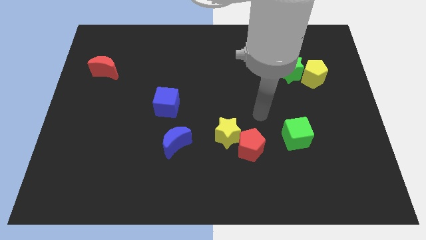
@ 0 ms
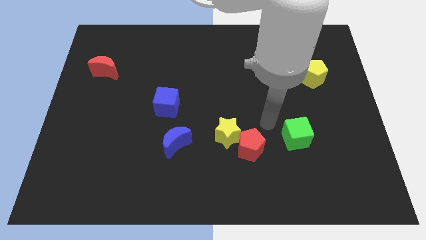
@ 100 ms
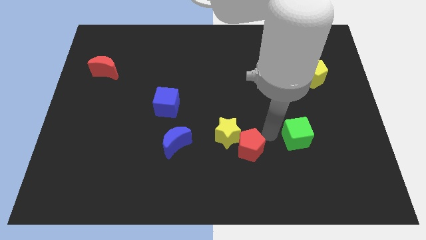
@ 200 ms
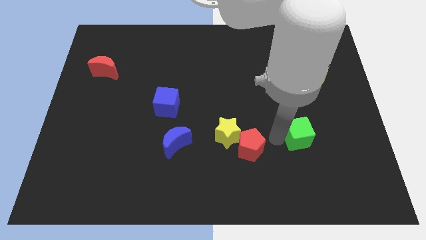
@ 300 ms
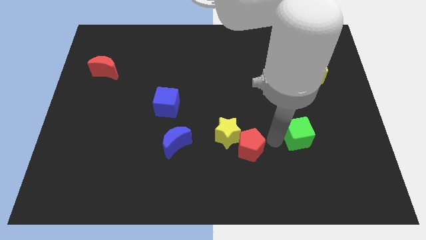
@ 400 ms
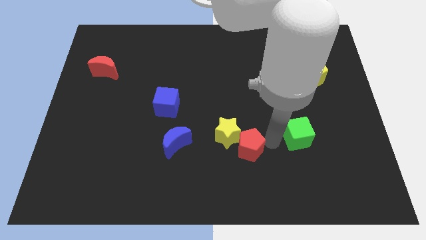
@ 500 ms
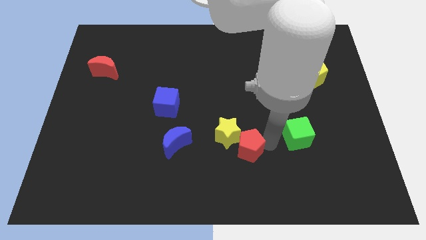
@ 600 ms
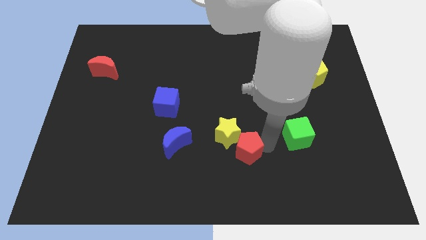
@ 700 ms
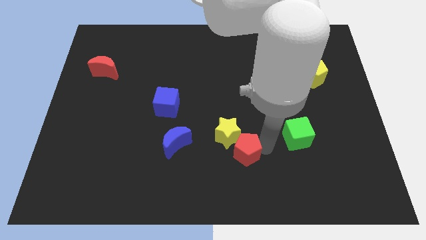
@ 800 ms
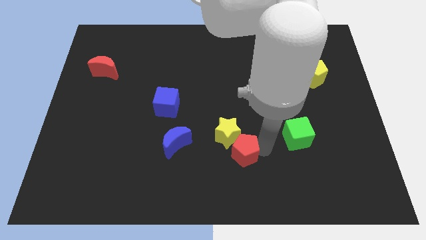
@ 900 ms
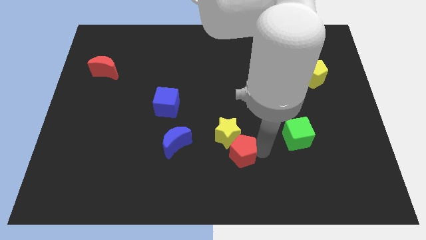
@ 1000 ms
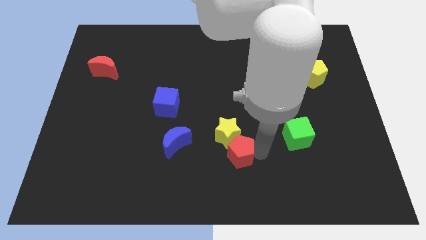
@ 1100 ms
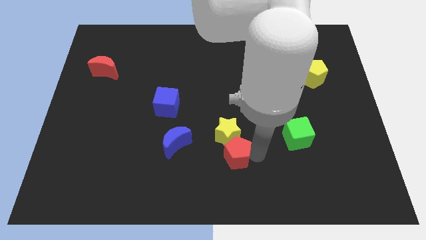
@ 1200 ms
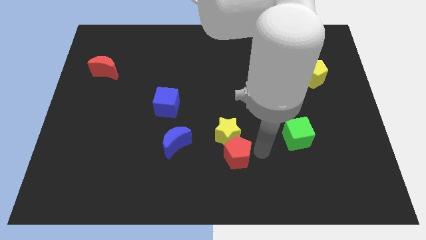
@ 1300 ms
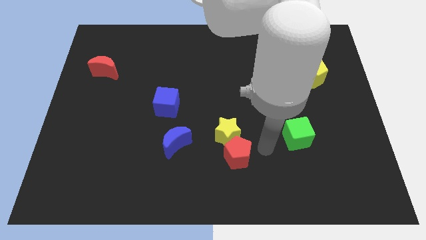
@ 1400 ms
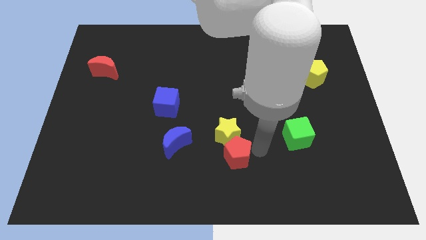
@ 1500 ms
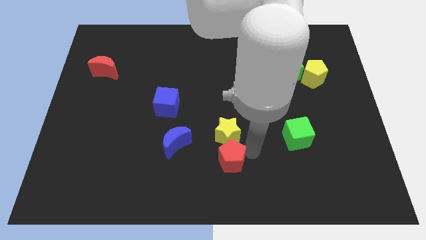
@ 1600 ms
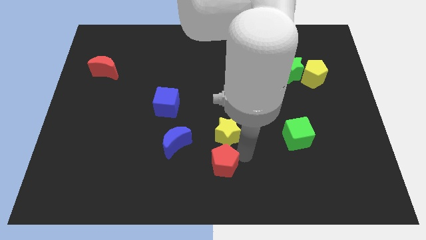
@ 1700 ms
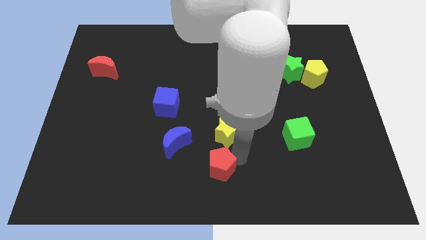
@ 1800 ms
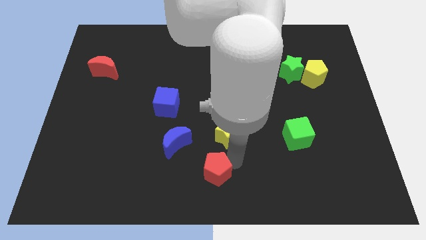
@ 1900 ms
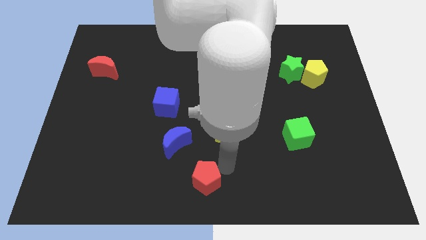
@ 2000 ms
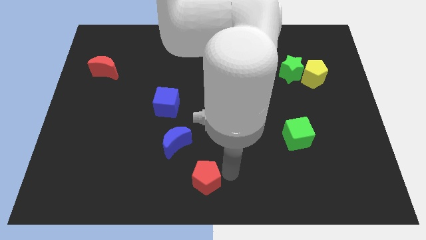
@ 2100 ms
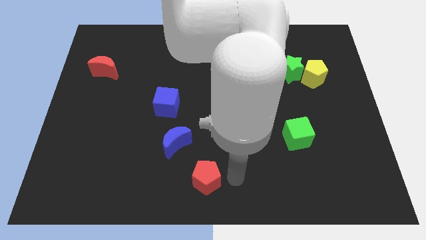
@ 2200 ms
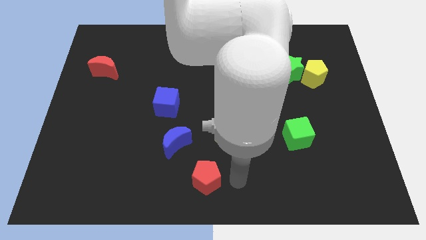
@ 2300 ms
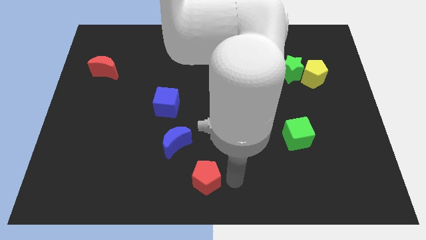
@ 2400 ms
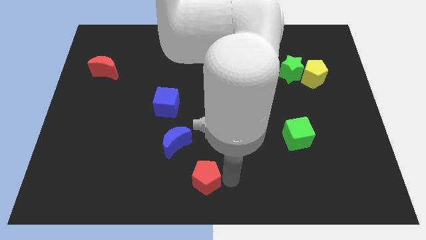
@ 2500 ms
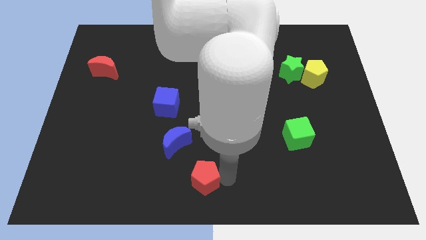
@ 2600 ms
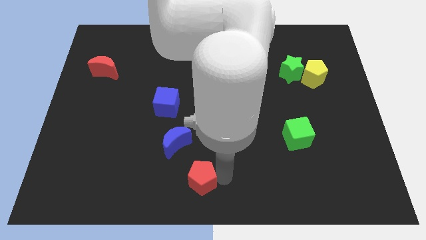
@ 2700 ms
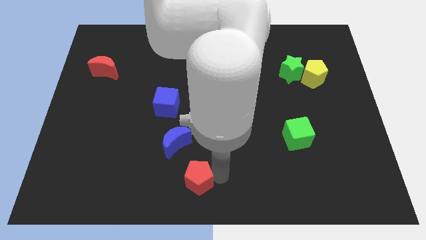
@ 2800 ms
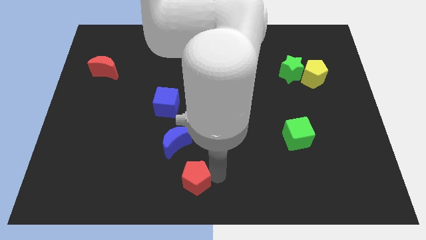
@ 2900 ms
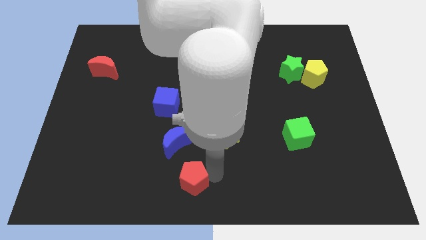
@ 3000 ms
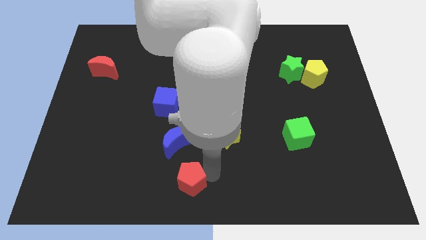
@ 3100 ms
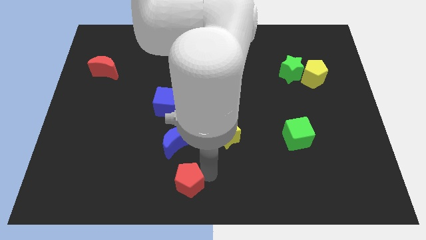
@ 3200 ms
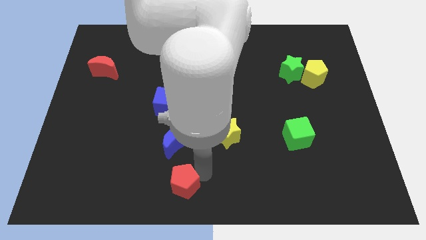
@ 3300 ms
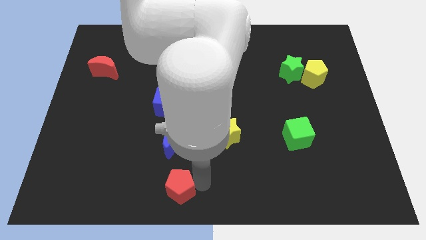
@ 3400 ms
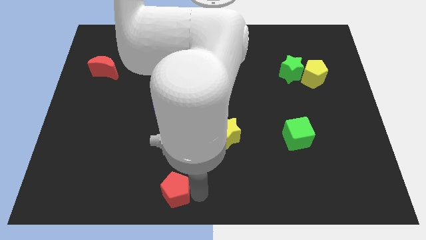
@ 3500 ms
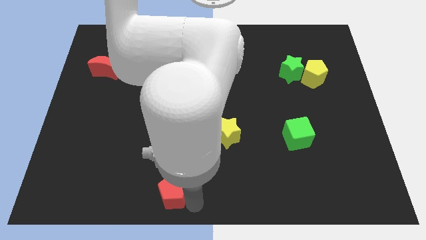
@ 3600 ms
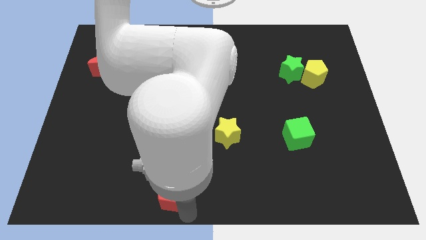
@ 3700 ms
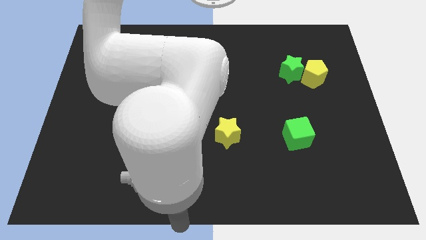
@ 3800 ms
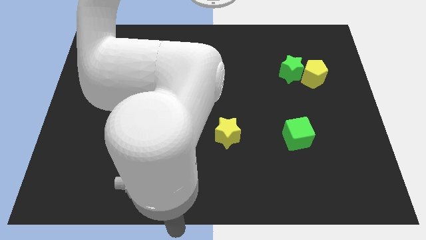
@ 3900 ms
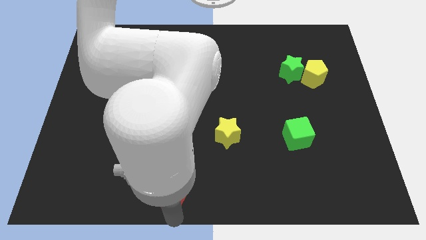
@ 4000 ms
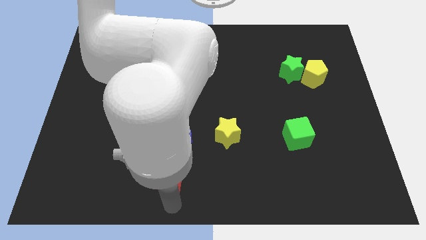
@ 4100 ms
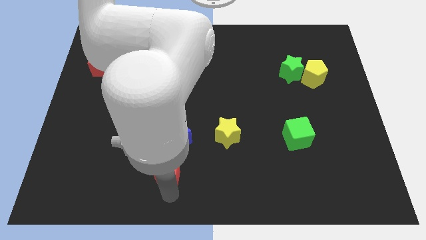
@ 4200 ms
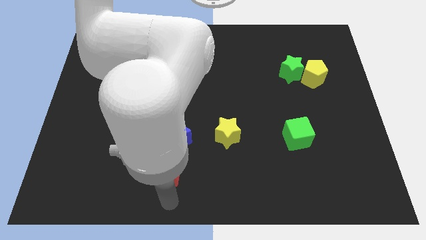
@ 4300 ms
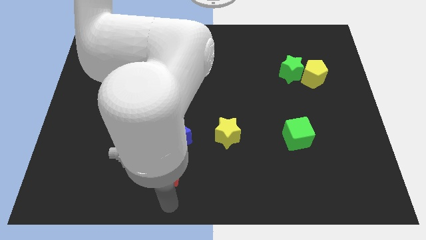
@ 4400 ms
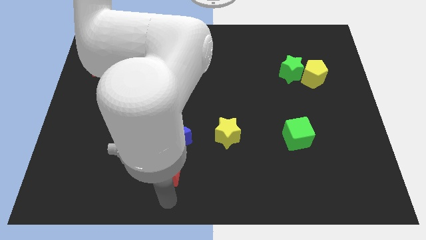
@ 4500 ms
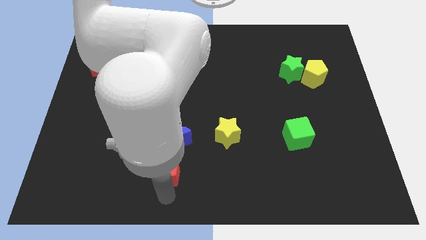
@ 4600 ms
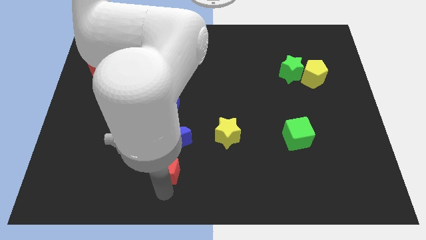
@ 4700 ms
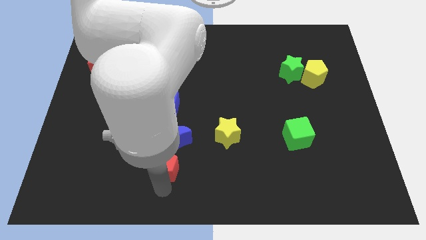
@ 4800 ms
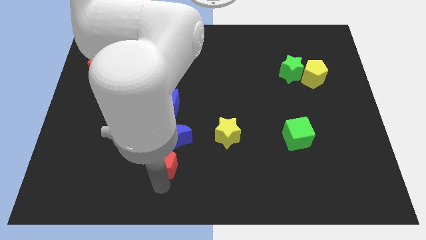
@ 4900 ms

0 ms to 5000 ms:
push the red pentagon to the bottom of the blue cube

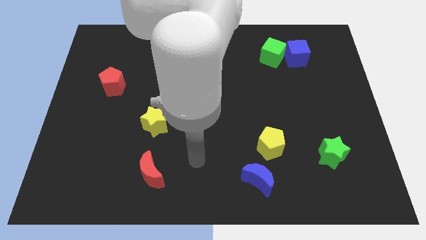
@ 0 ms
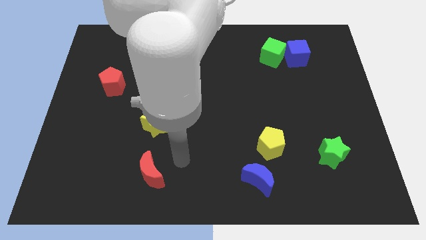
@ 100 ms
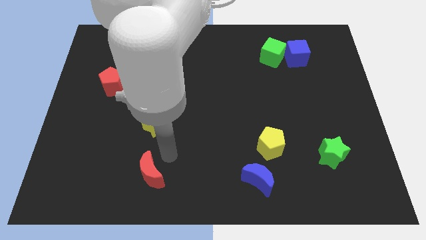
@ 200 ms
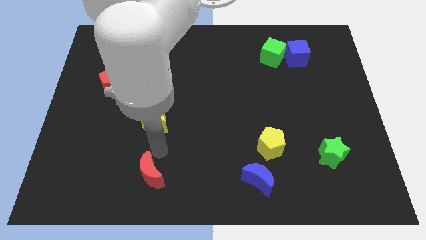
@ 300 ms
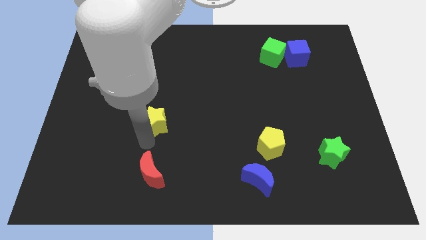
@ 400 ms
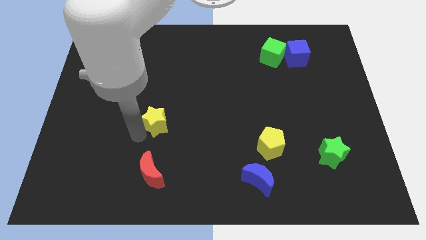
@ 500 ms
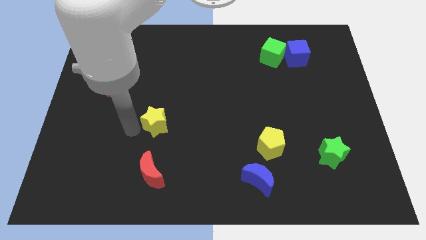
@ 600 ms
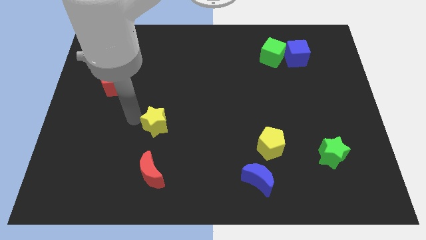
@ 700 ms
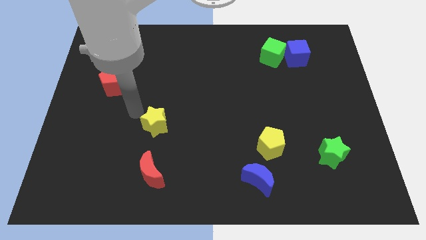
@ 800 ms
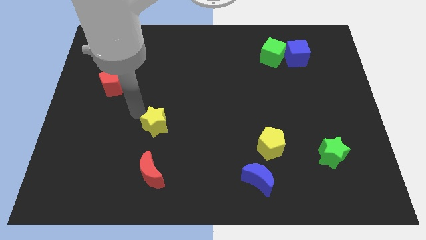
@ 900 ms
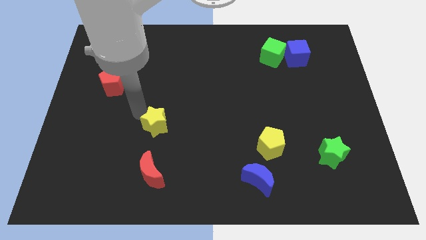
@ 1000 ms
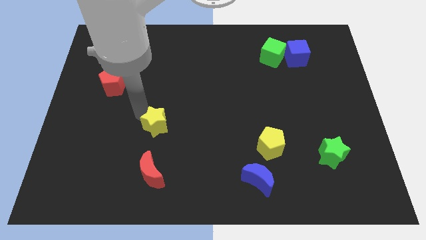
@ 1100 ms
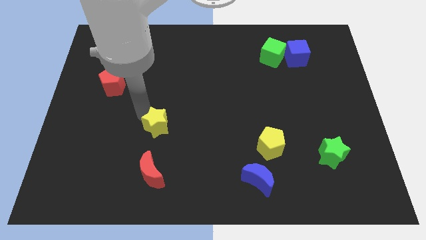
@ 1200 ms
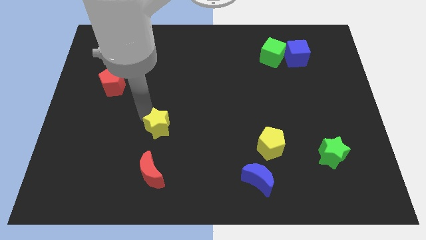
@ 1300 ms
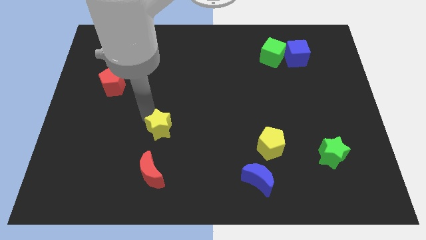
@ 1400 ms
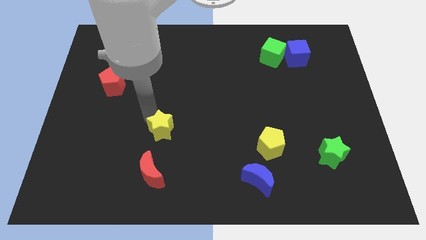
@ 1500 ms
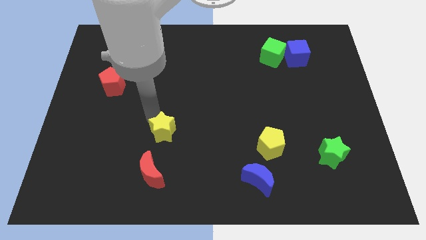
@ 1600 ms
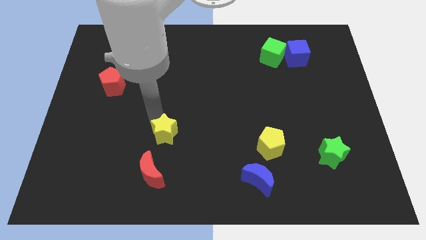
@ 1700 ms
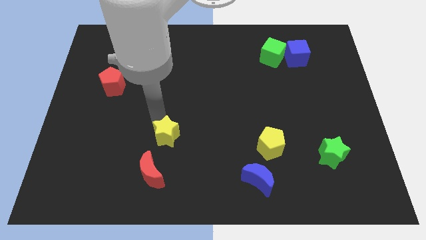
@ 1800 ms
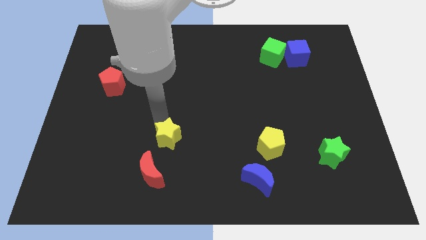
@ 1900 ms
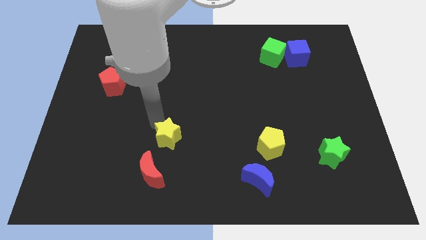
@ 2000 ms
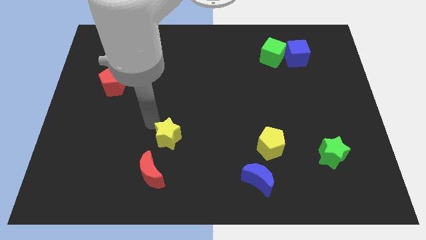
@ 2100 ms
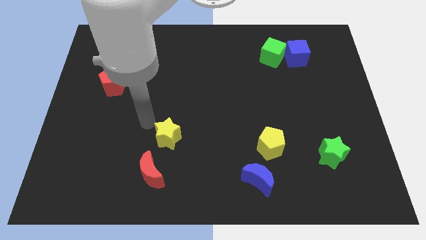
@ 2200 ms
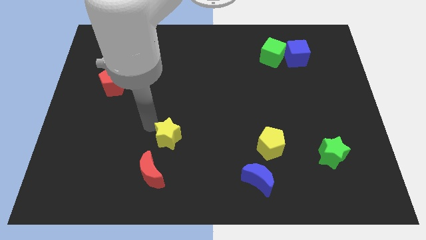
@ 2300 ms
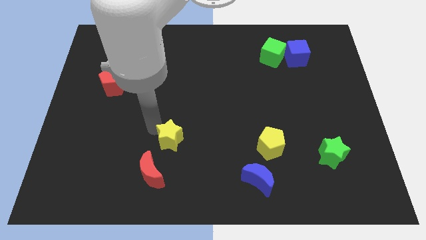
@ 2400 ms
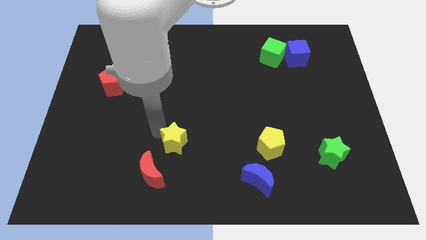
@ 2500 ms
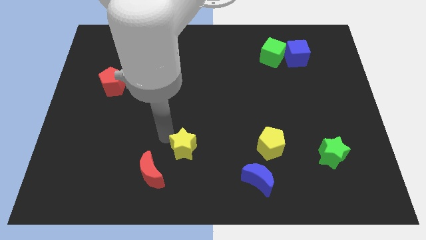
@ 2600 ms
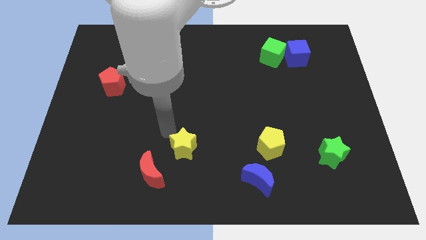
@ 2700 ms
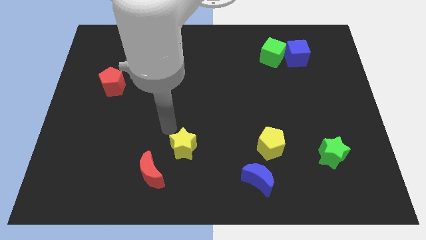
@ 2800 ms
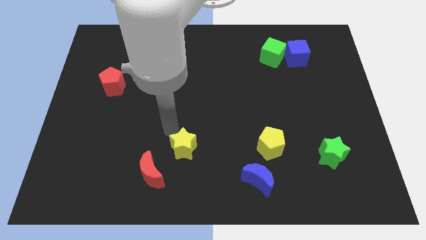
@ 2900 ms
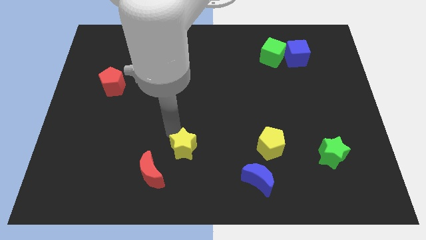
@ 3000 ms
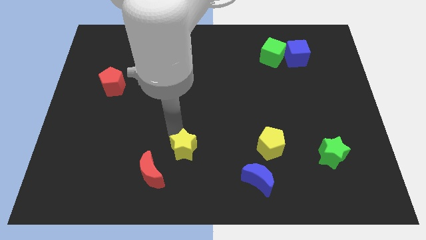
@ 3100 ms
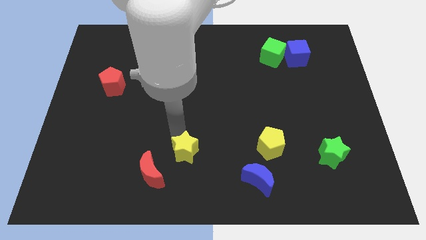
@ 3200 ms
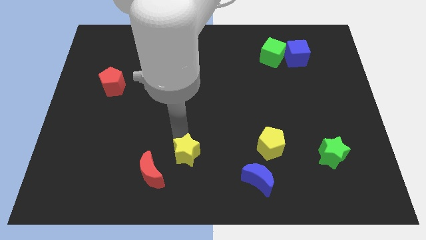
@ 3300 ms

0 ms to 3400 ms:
push the yellow star just right of the red moon
